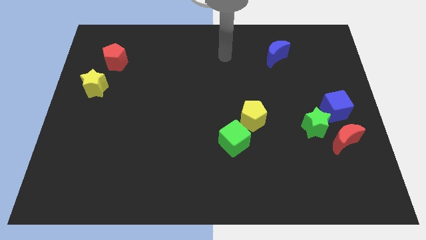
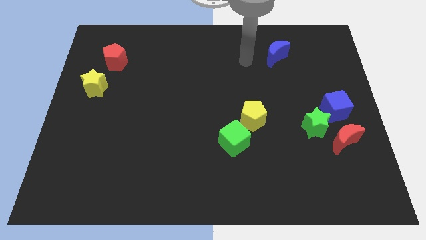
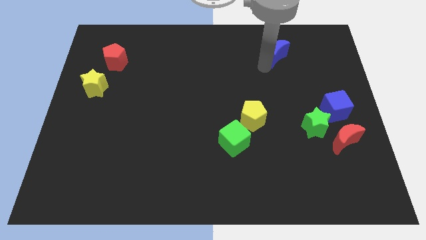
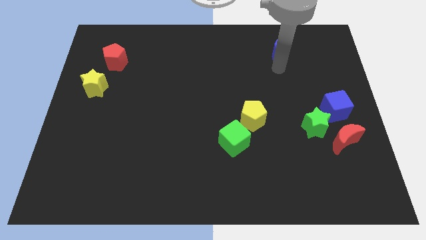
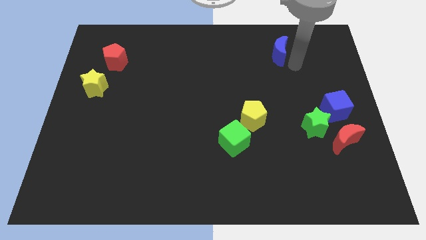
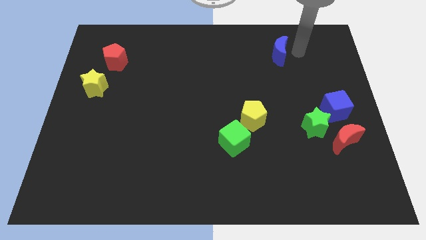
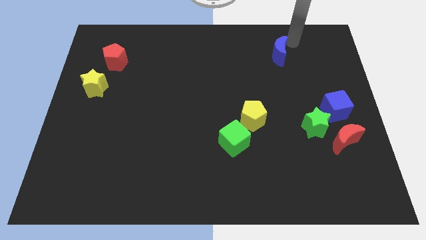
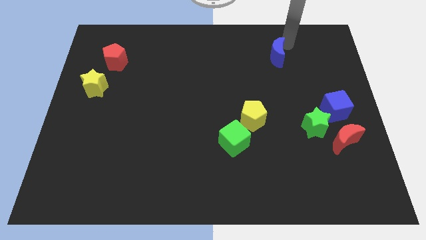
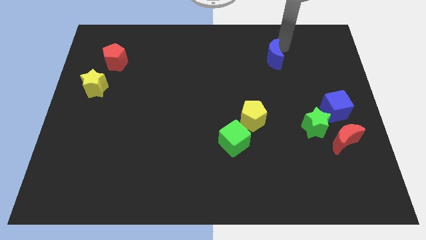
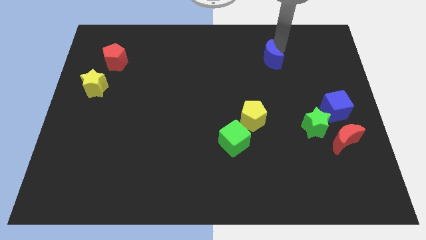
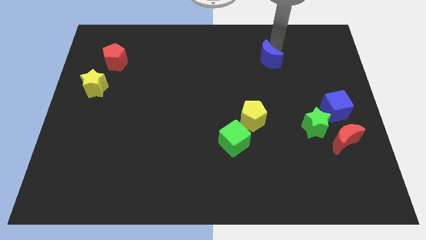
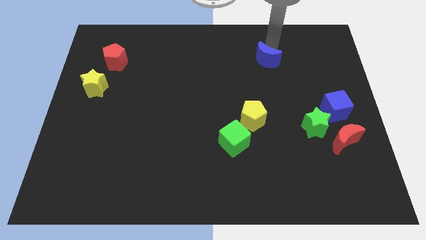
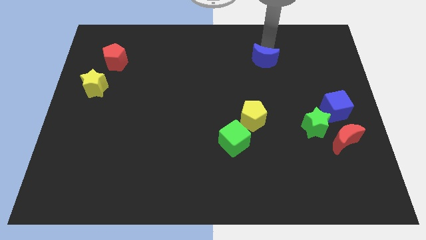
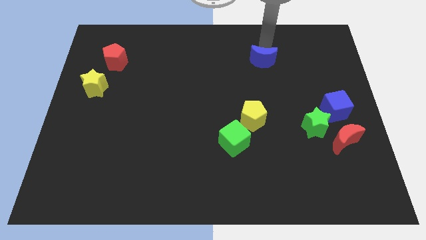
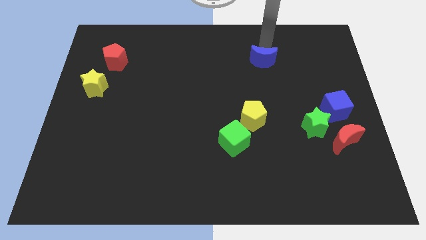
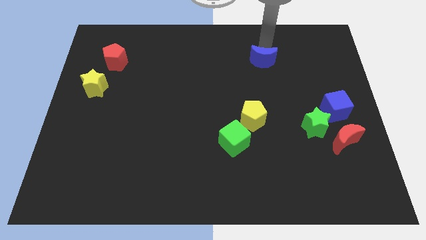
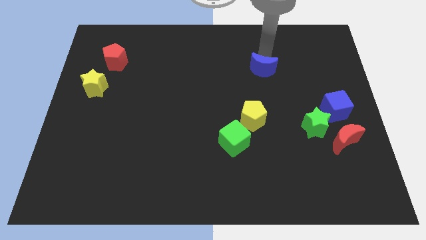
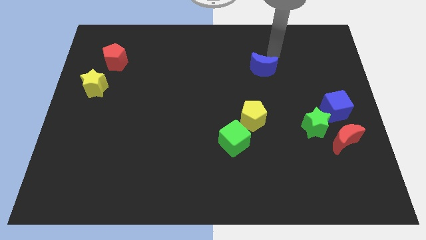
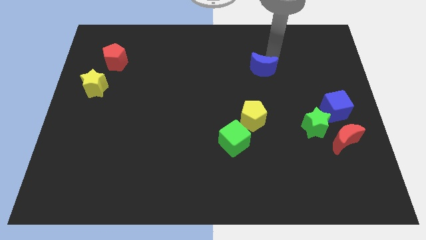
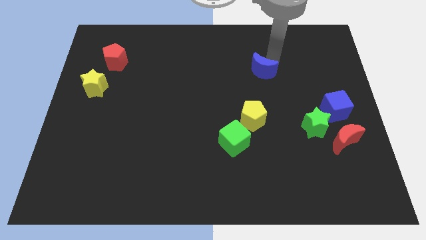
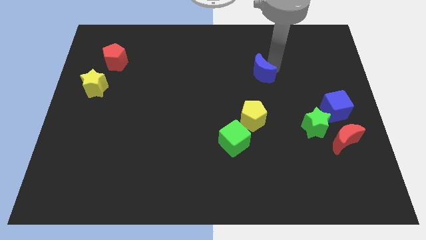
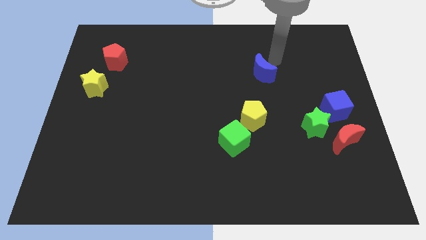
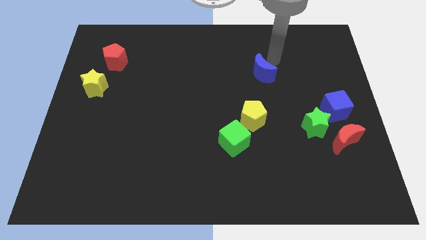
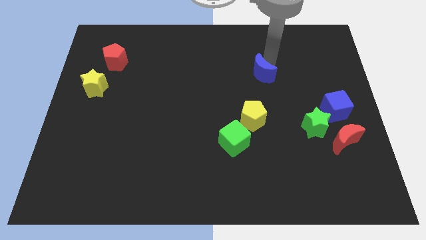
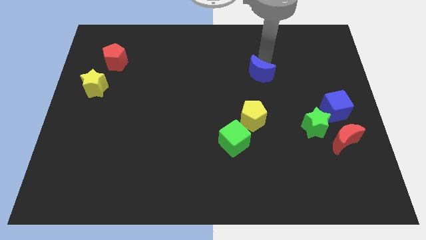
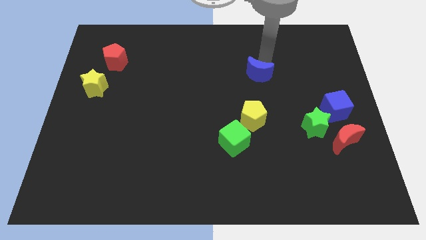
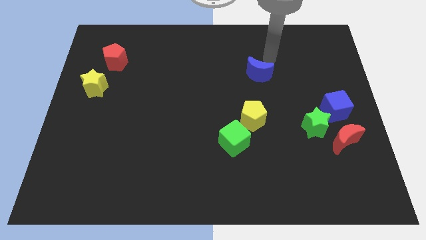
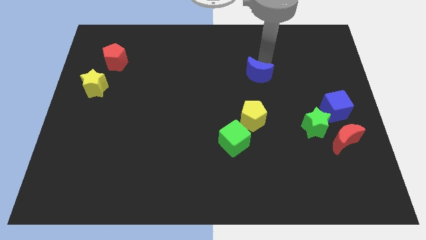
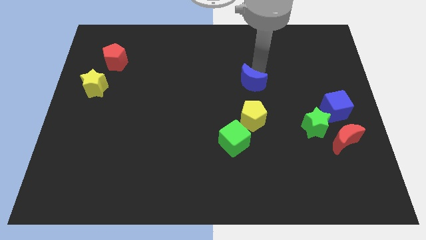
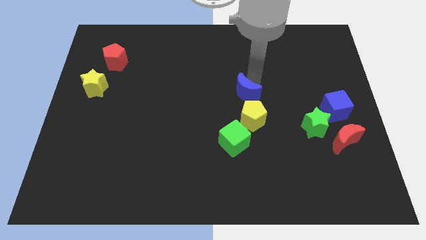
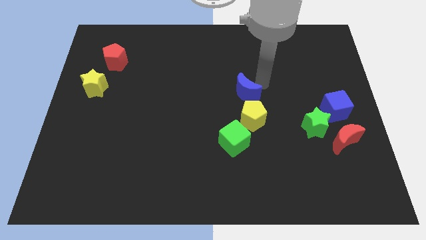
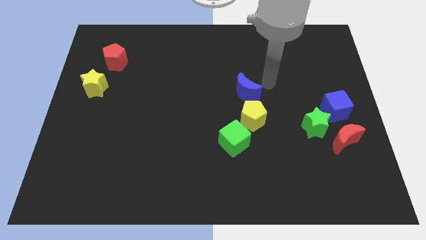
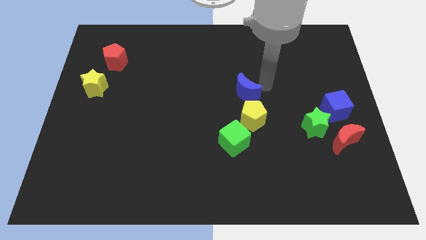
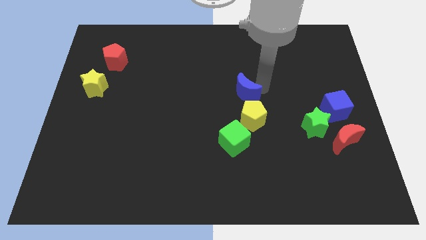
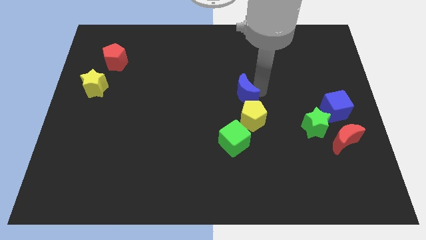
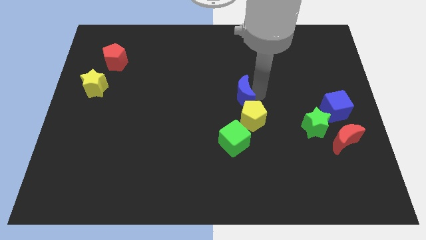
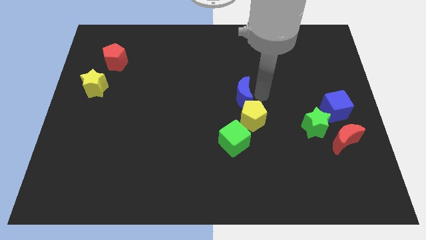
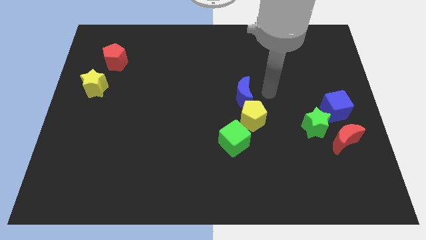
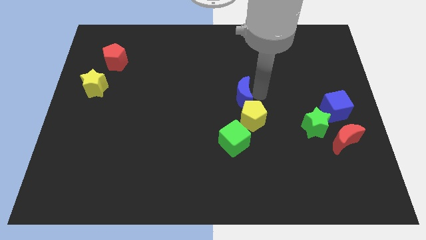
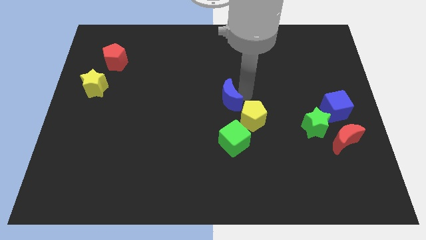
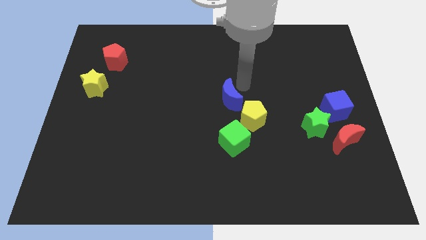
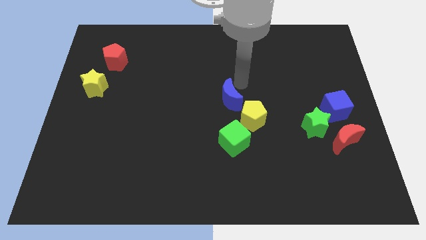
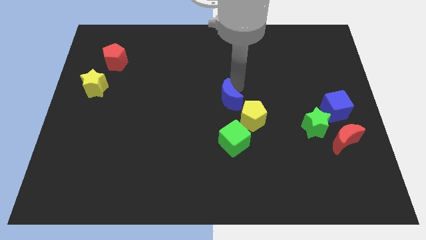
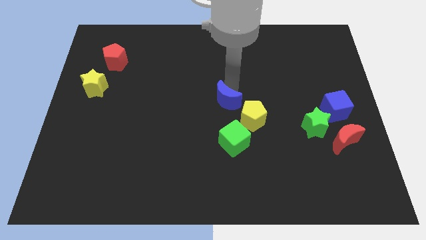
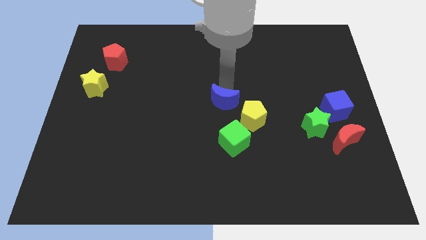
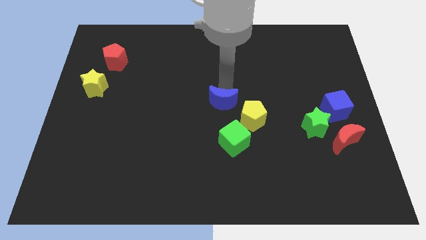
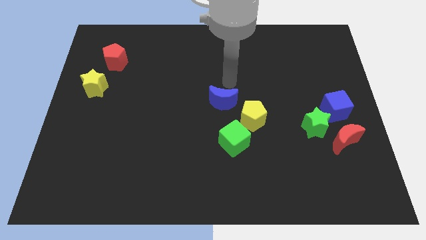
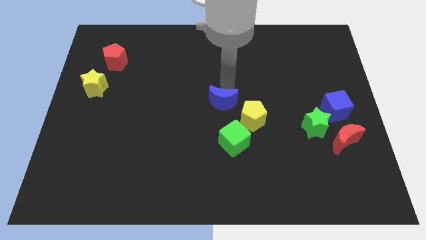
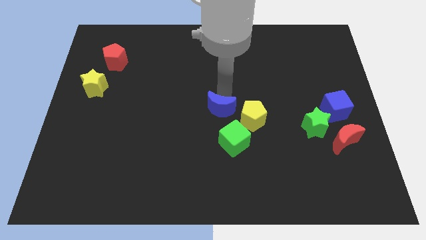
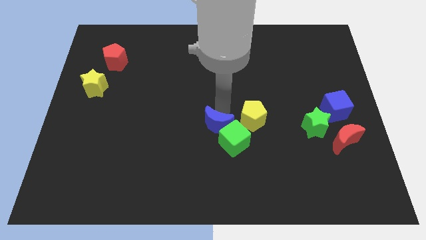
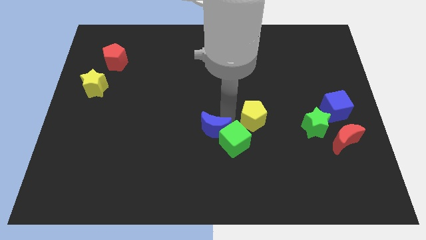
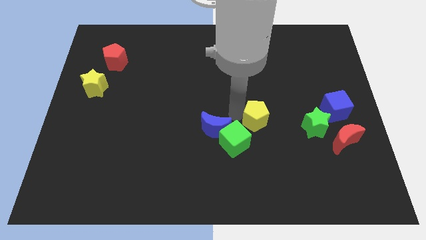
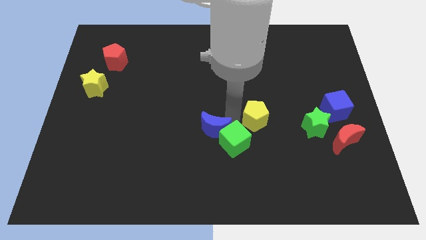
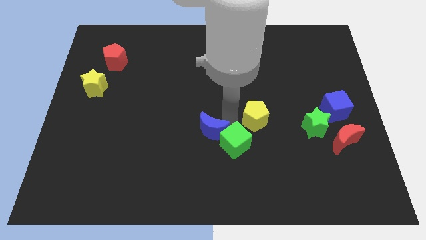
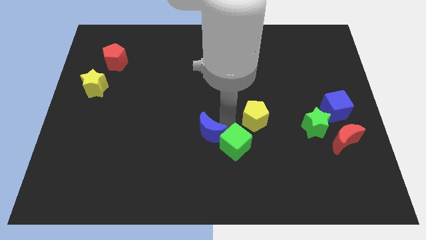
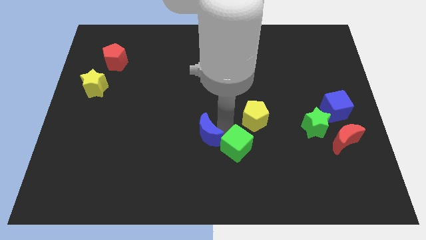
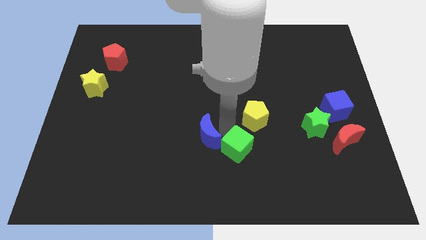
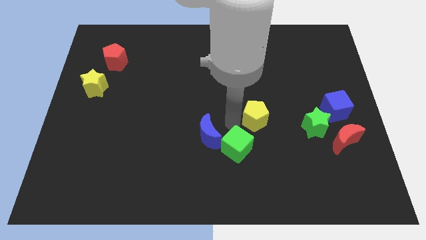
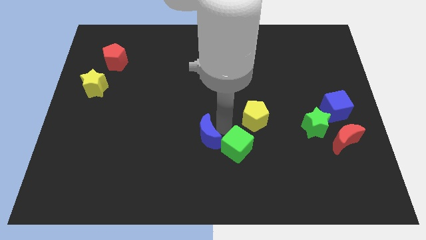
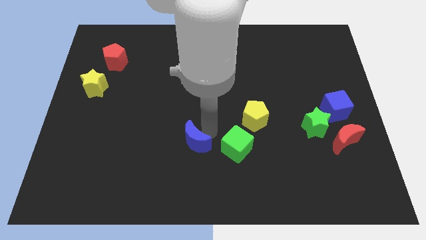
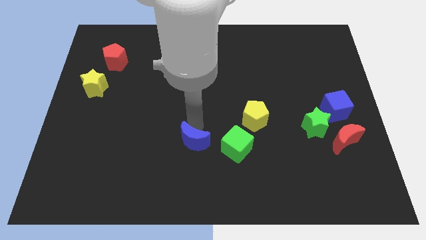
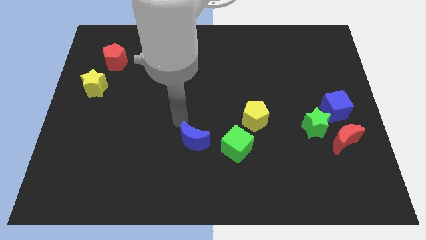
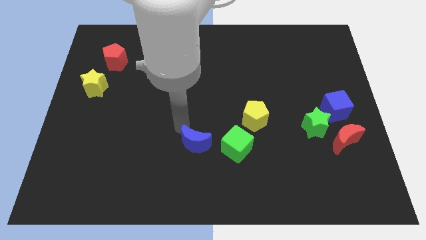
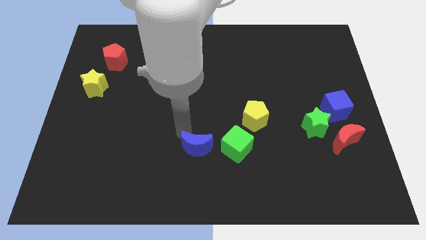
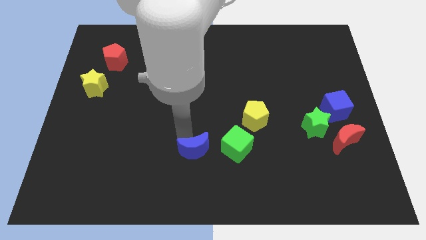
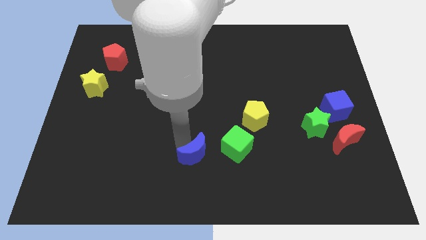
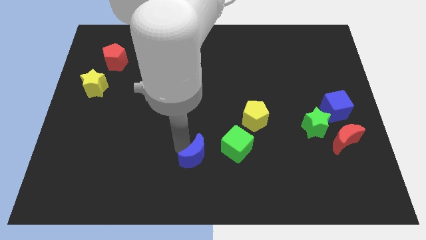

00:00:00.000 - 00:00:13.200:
push the blue moon diagonally down and to the left of the green cube

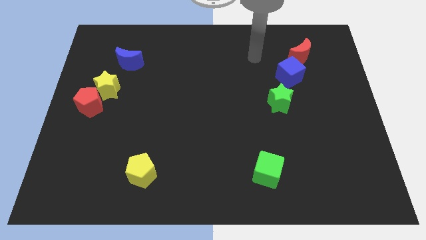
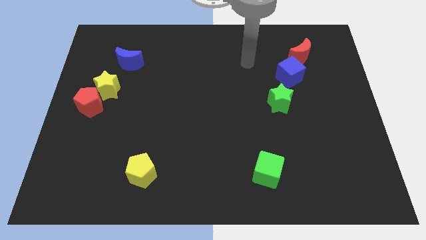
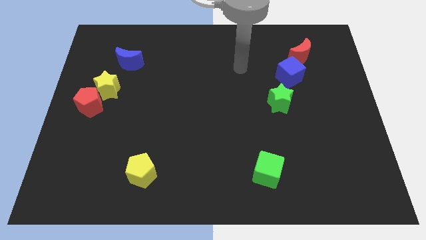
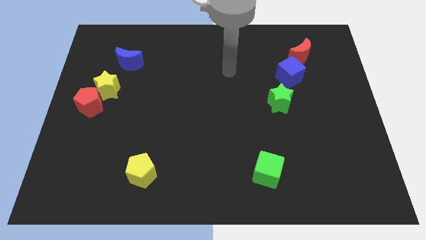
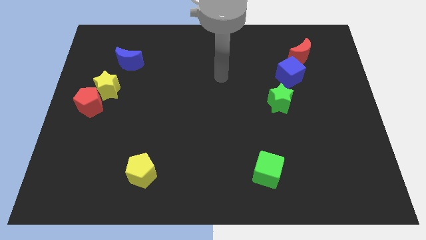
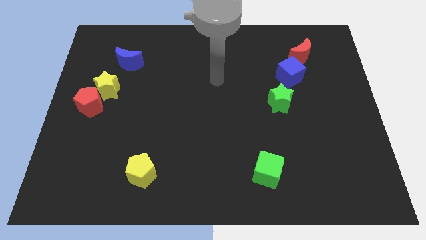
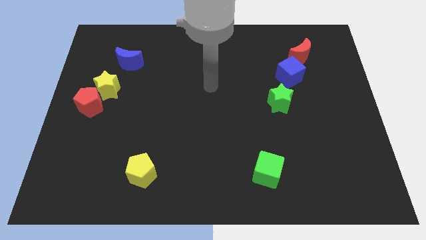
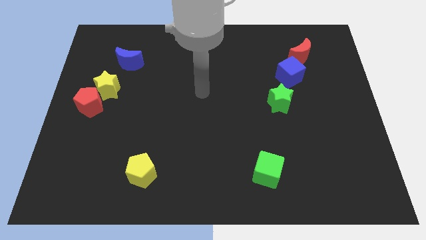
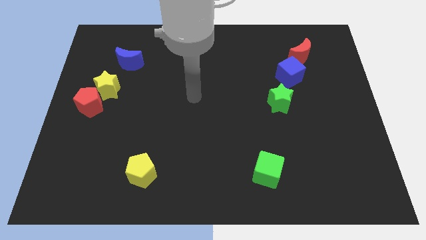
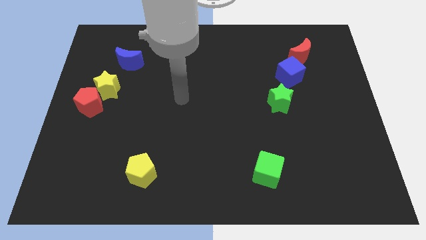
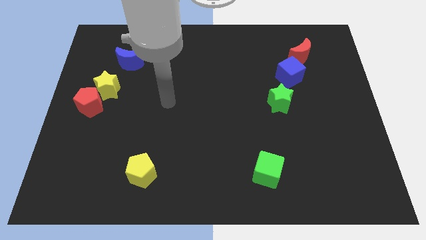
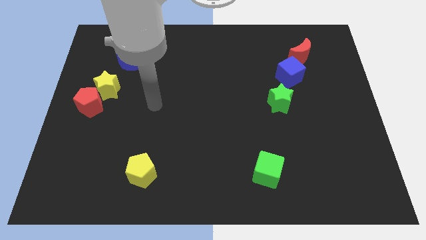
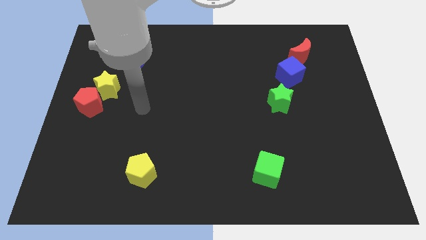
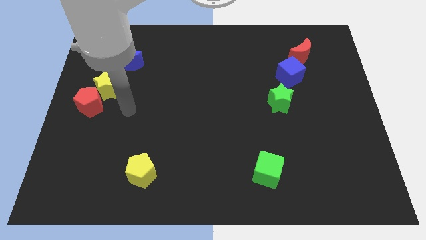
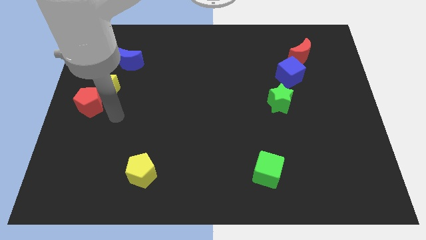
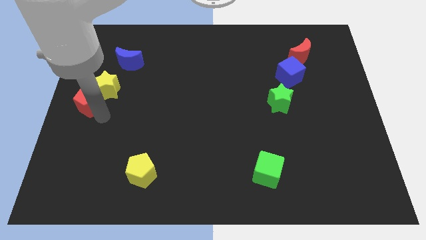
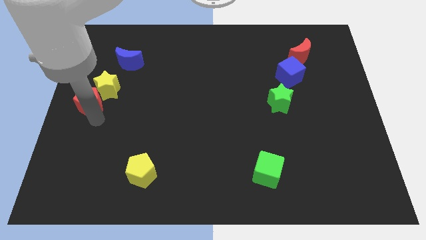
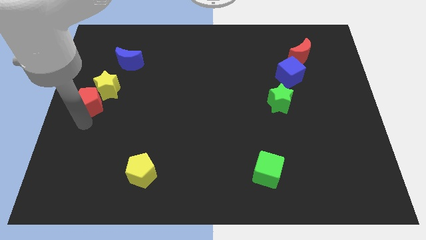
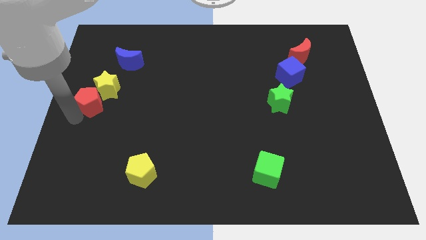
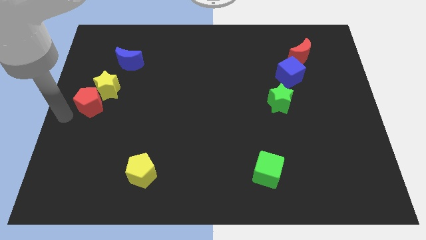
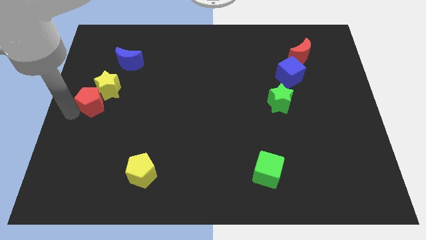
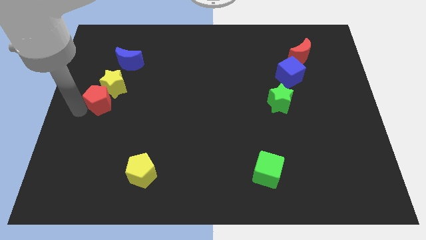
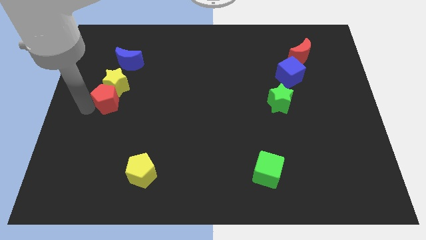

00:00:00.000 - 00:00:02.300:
move the red pentagon to the bottom side of the blue moon
